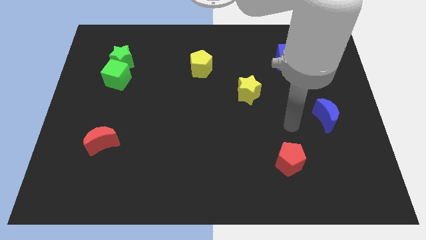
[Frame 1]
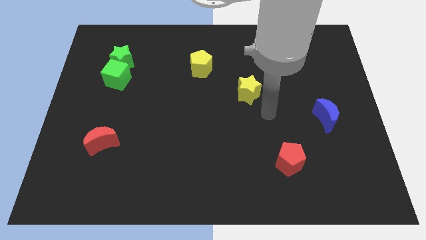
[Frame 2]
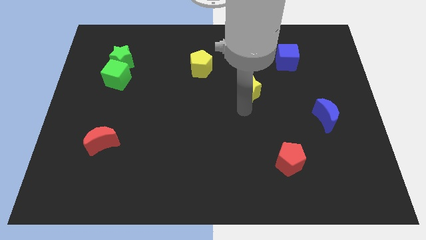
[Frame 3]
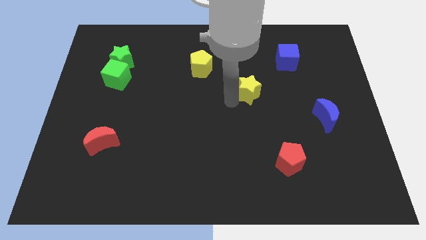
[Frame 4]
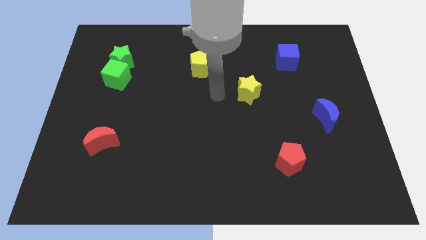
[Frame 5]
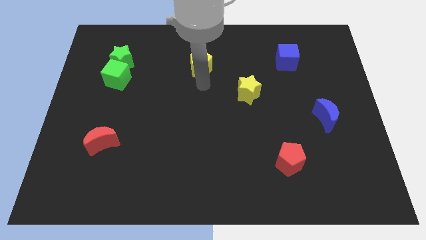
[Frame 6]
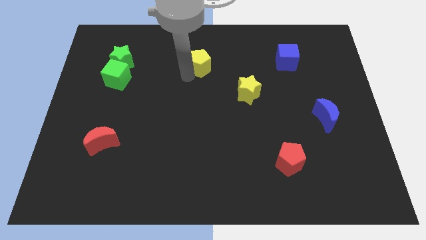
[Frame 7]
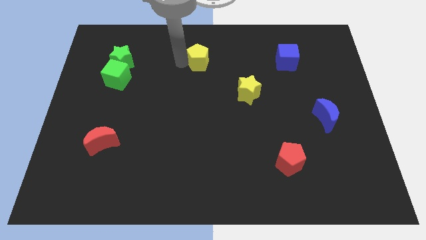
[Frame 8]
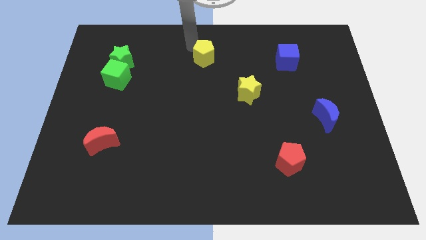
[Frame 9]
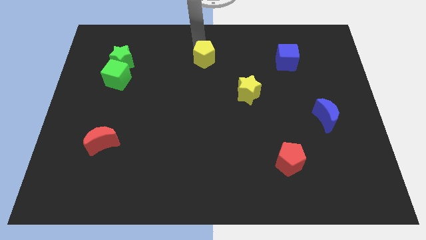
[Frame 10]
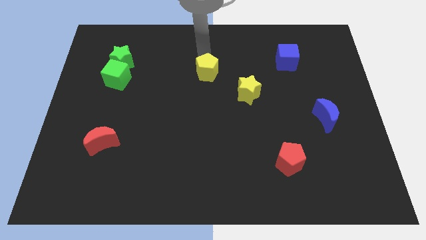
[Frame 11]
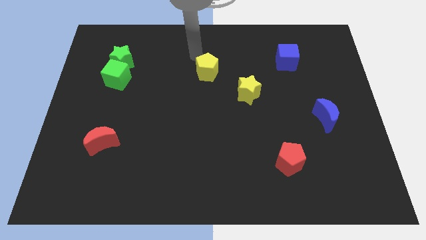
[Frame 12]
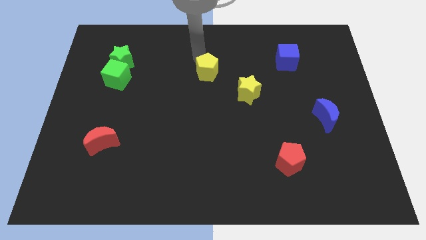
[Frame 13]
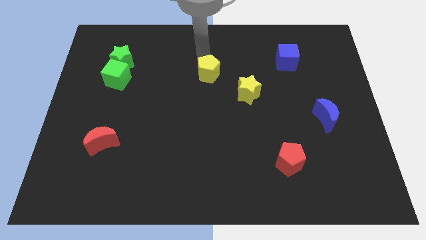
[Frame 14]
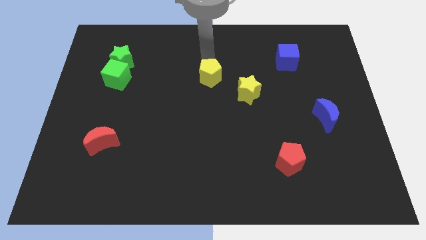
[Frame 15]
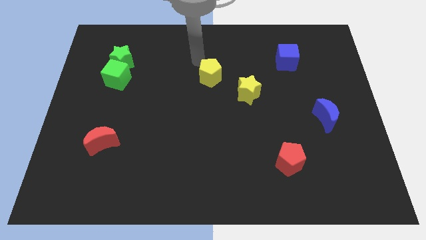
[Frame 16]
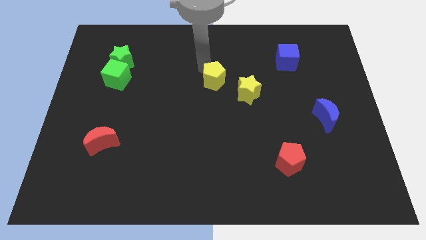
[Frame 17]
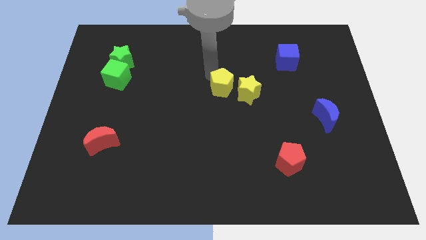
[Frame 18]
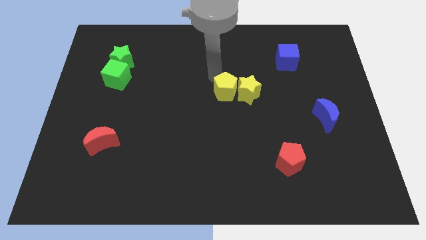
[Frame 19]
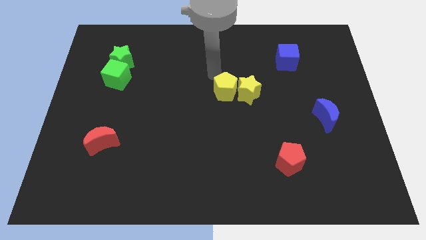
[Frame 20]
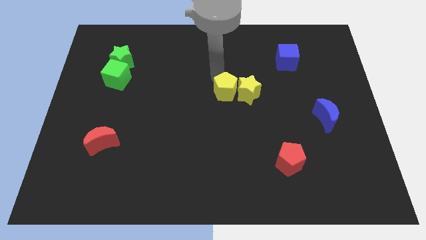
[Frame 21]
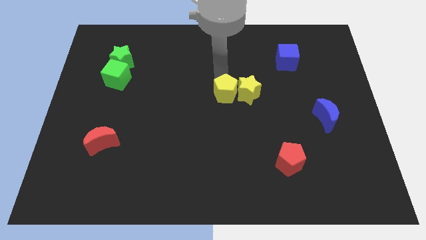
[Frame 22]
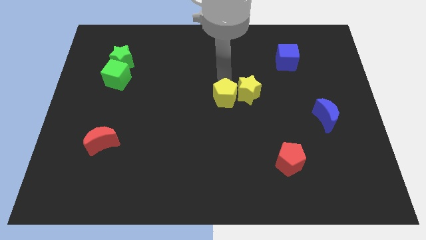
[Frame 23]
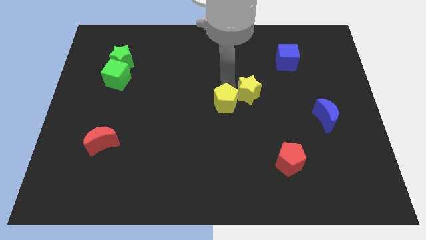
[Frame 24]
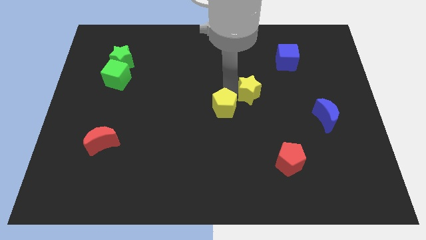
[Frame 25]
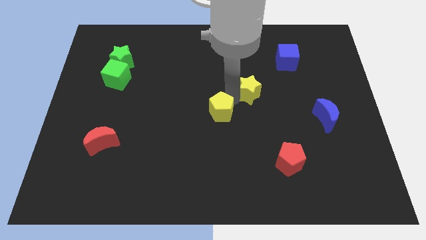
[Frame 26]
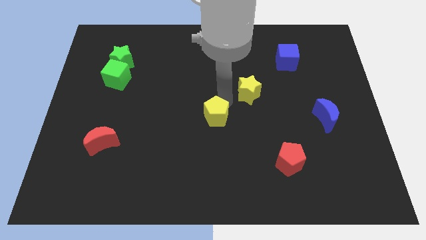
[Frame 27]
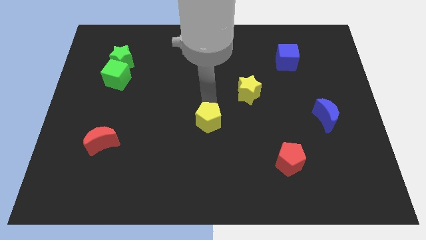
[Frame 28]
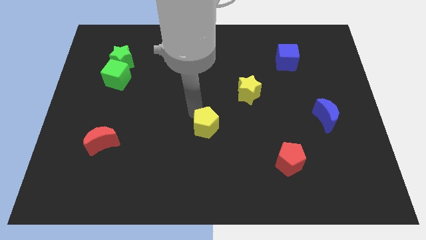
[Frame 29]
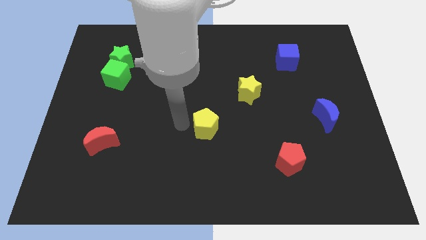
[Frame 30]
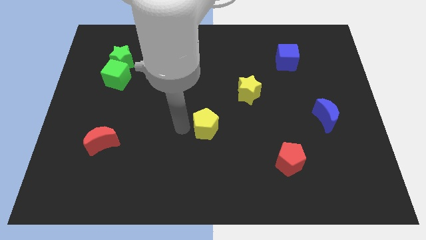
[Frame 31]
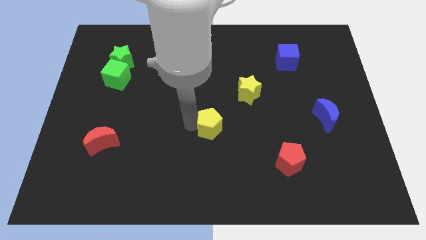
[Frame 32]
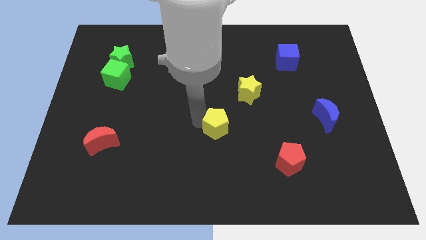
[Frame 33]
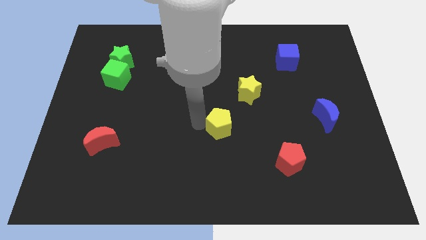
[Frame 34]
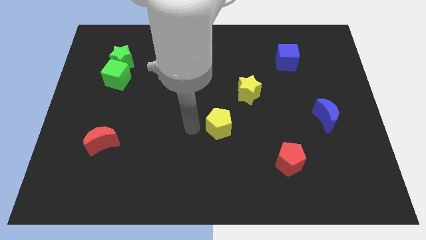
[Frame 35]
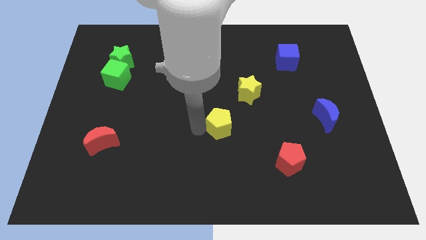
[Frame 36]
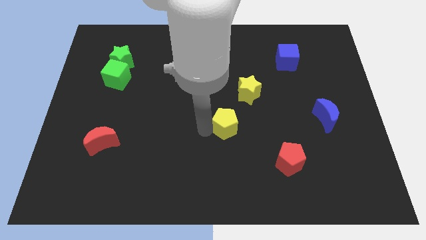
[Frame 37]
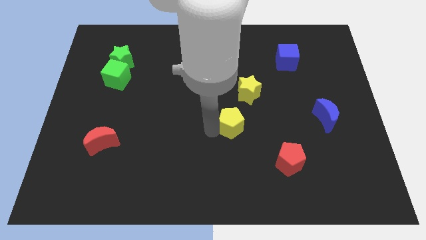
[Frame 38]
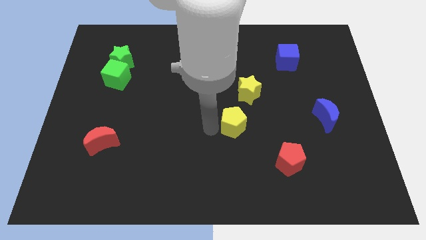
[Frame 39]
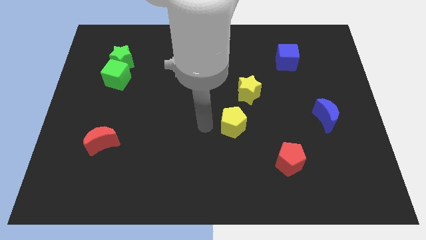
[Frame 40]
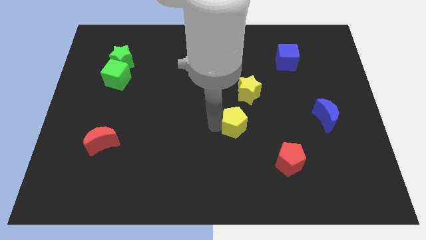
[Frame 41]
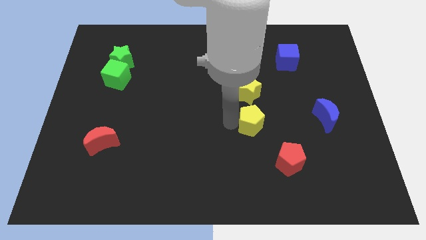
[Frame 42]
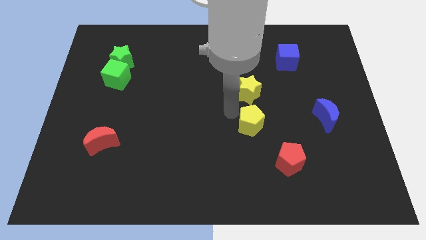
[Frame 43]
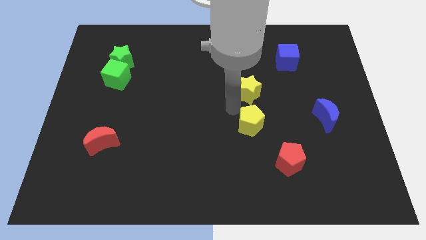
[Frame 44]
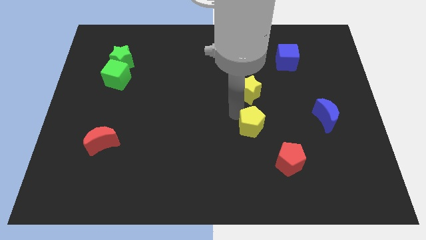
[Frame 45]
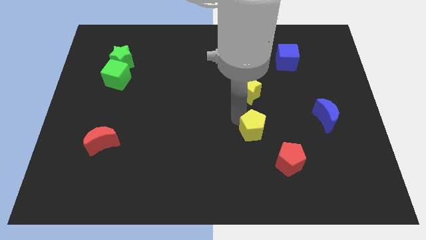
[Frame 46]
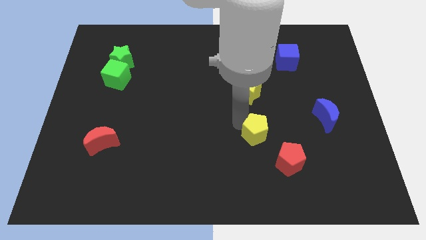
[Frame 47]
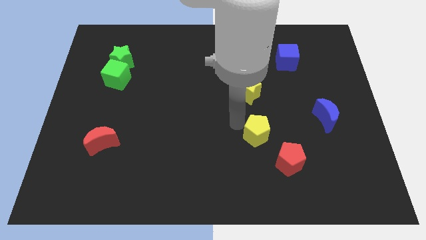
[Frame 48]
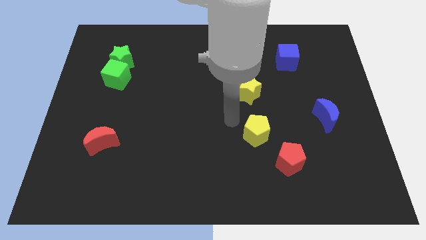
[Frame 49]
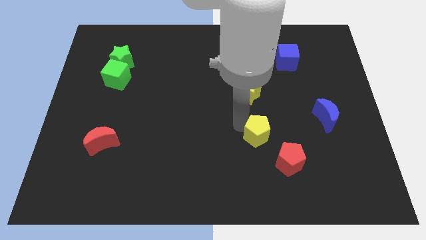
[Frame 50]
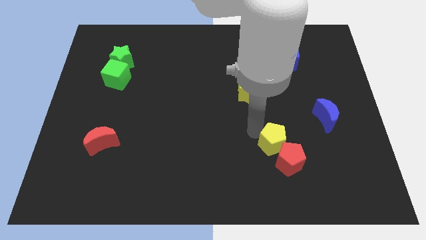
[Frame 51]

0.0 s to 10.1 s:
slide the yellow pentagon close to the red pentagon

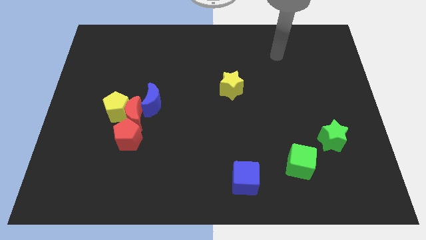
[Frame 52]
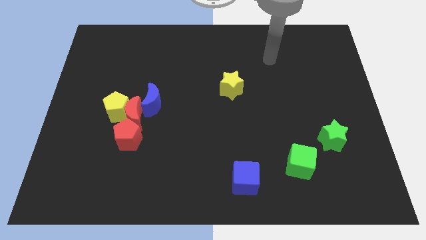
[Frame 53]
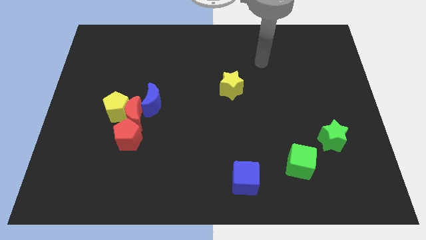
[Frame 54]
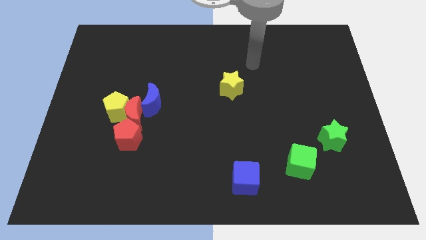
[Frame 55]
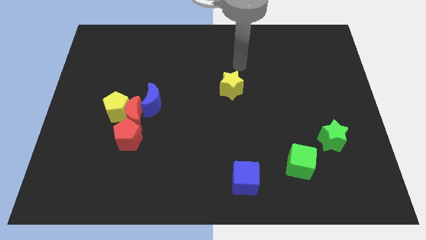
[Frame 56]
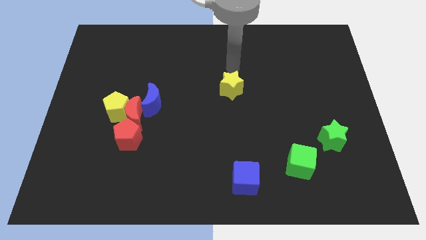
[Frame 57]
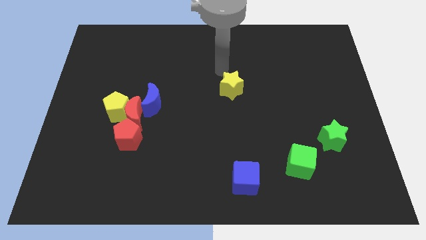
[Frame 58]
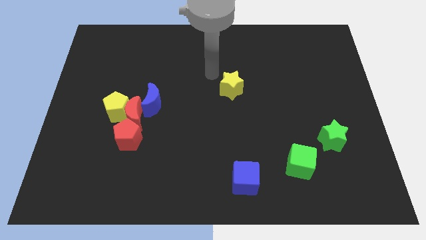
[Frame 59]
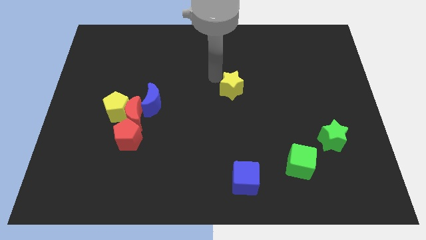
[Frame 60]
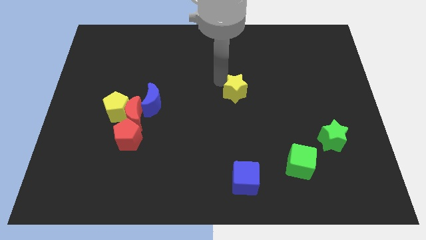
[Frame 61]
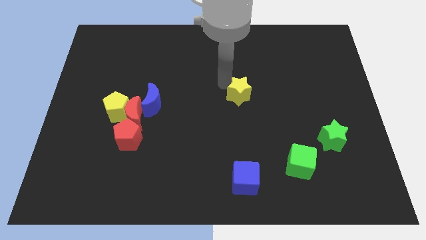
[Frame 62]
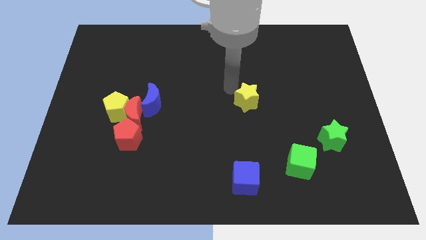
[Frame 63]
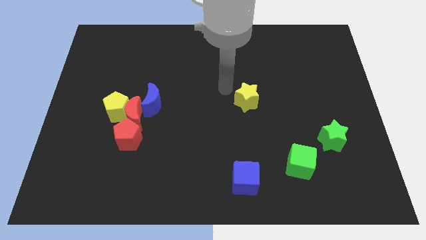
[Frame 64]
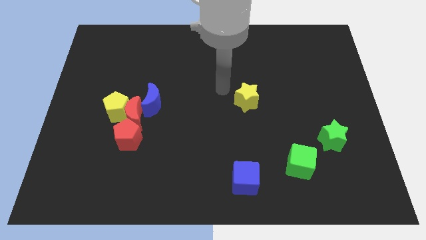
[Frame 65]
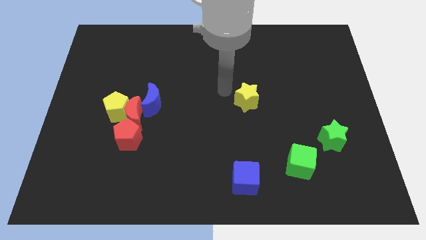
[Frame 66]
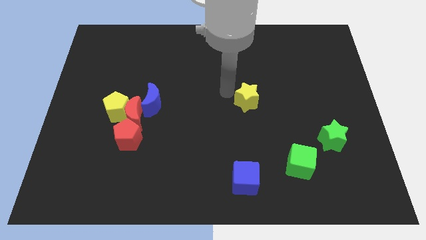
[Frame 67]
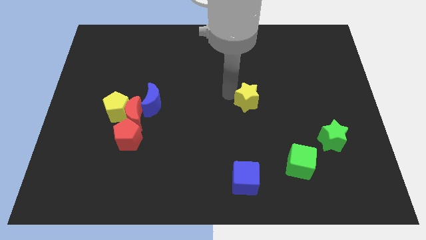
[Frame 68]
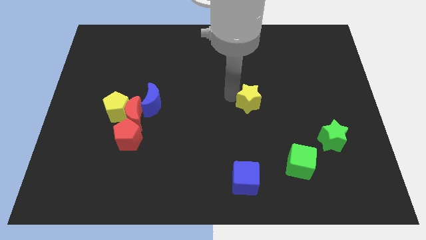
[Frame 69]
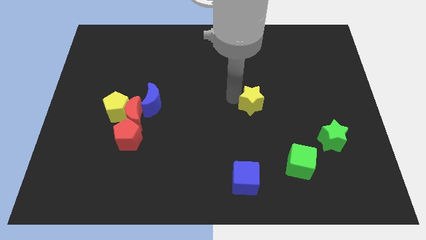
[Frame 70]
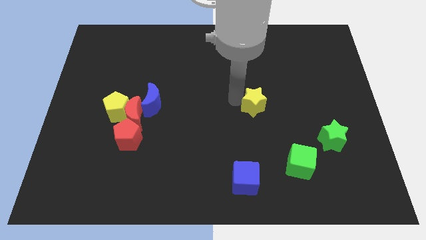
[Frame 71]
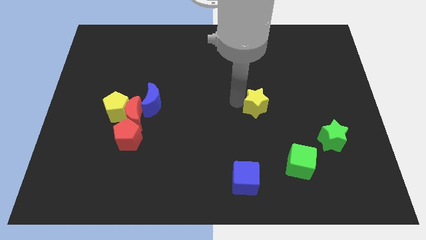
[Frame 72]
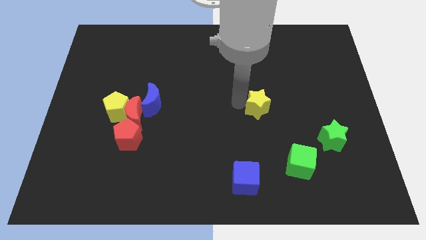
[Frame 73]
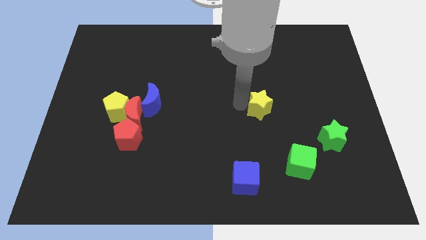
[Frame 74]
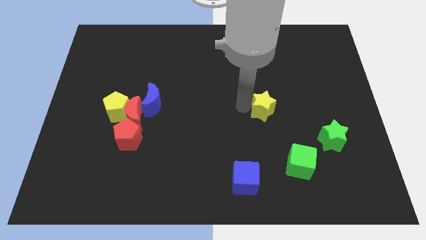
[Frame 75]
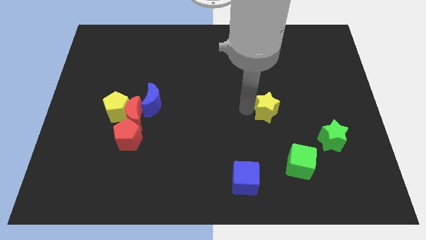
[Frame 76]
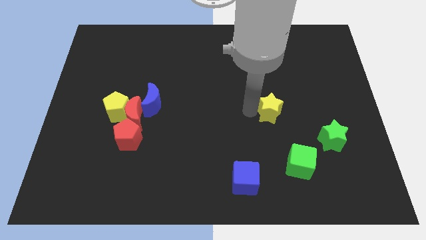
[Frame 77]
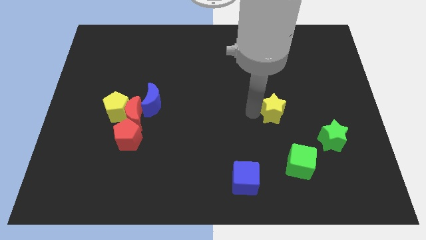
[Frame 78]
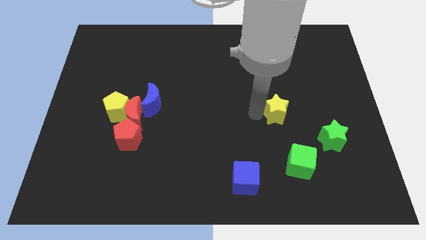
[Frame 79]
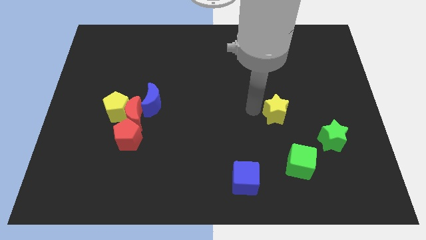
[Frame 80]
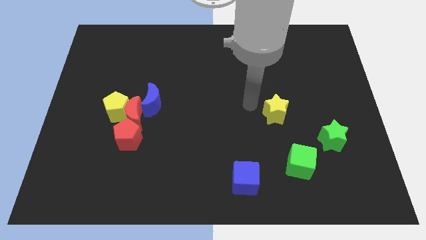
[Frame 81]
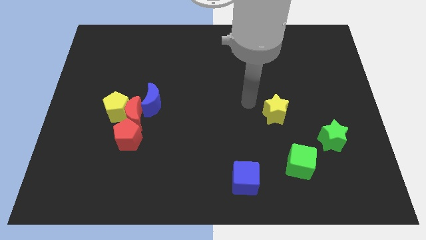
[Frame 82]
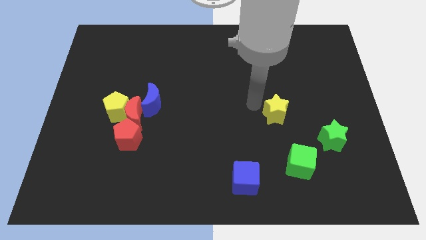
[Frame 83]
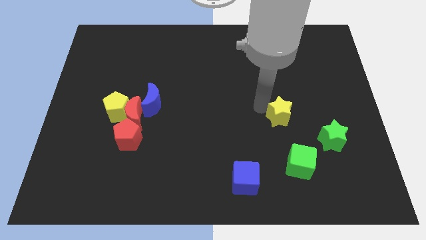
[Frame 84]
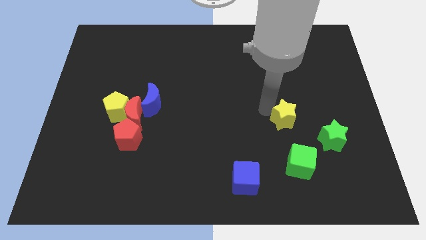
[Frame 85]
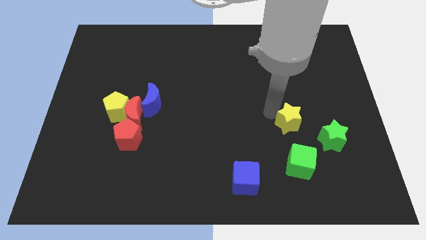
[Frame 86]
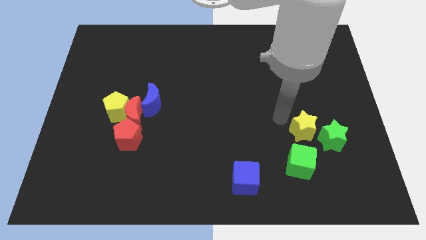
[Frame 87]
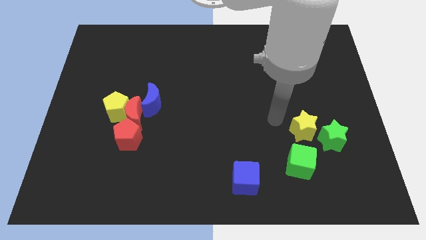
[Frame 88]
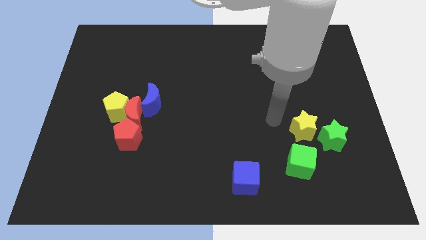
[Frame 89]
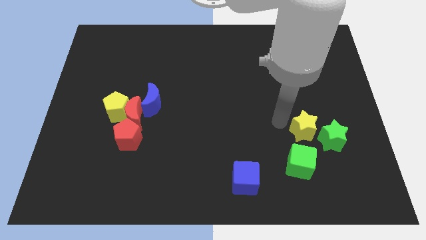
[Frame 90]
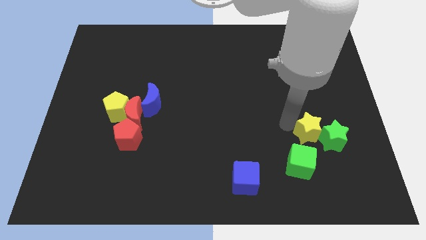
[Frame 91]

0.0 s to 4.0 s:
slide the yellow star to the green star
